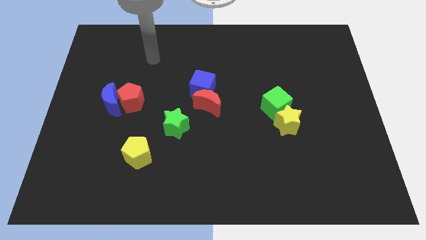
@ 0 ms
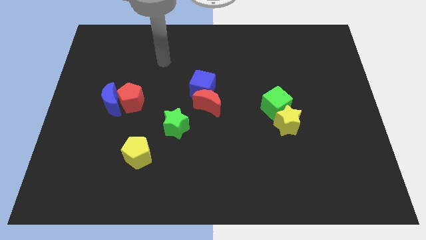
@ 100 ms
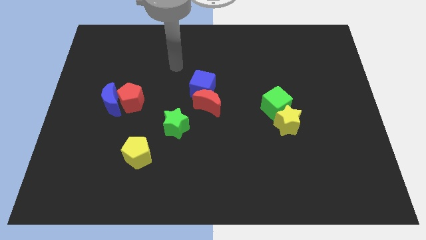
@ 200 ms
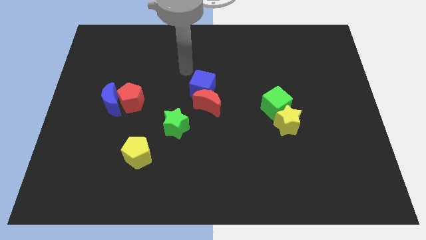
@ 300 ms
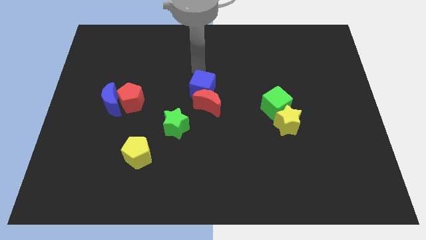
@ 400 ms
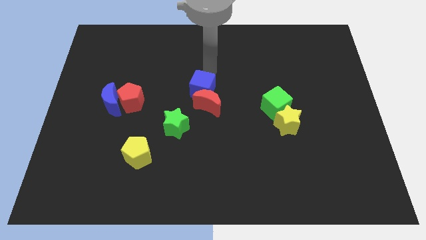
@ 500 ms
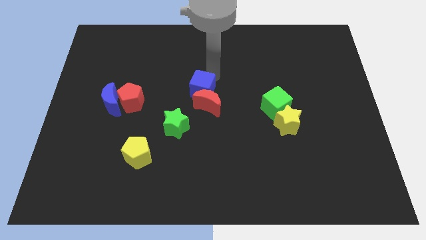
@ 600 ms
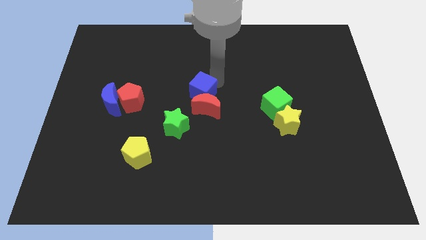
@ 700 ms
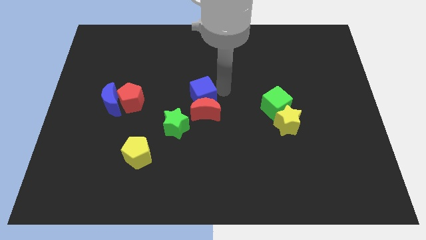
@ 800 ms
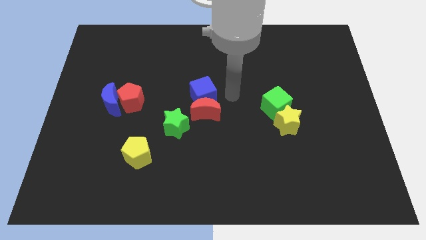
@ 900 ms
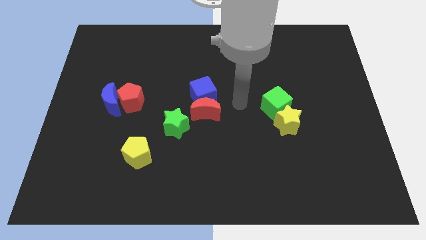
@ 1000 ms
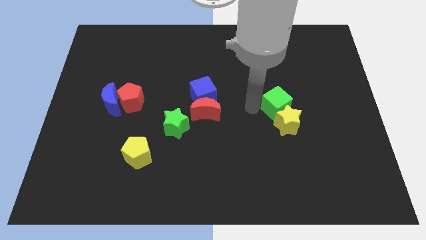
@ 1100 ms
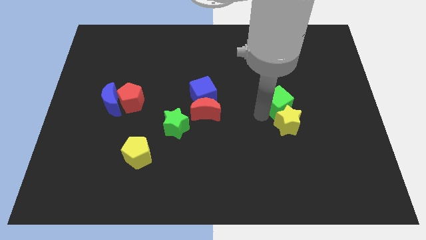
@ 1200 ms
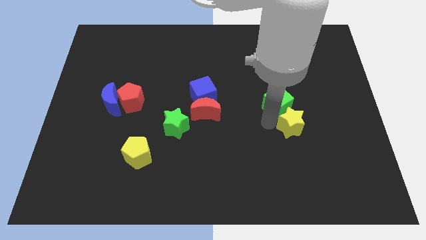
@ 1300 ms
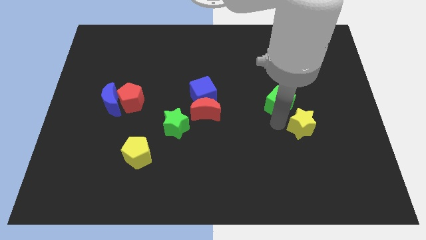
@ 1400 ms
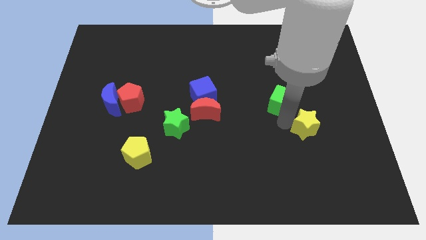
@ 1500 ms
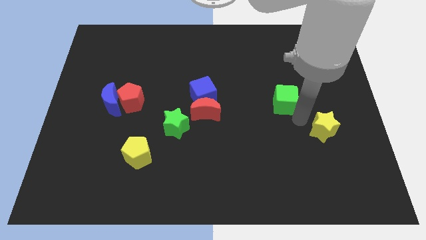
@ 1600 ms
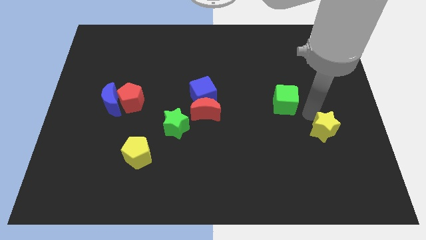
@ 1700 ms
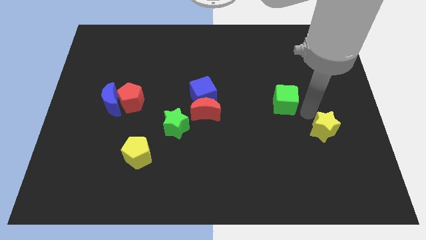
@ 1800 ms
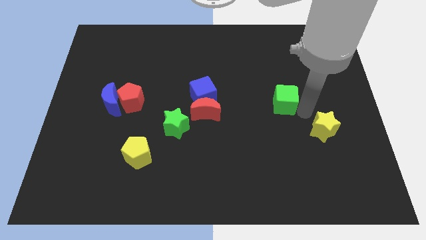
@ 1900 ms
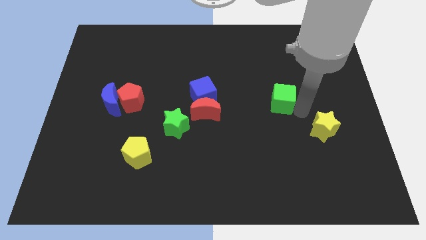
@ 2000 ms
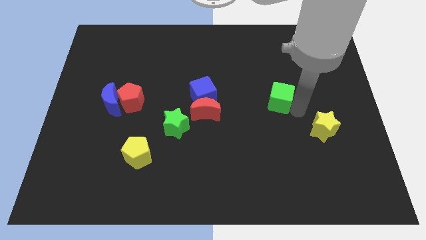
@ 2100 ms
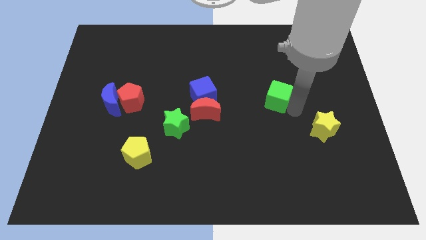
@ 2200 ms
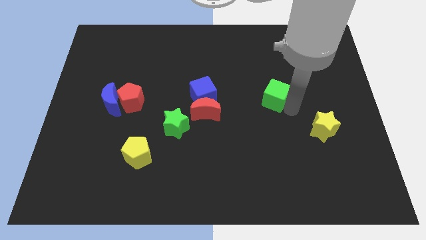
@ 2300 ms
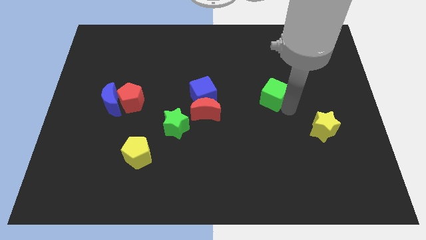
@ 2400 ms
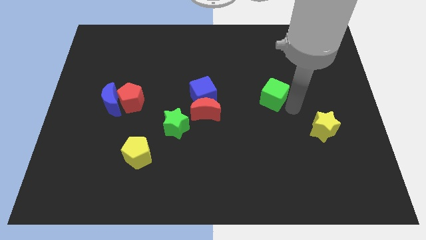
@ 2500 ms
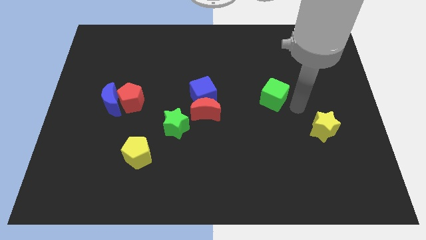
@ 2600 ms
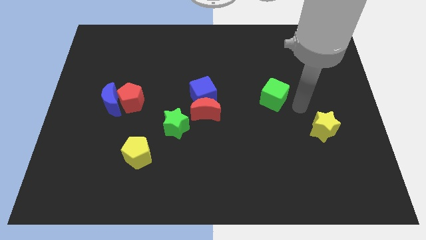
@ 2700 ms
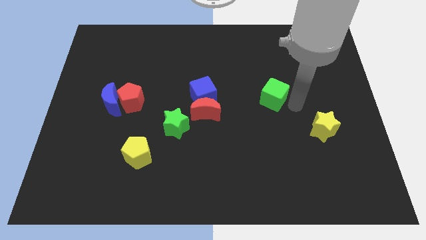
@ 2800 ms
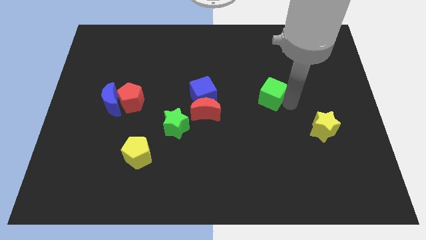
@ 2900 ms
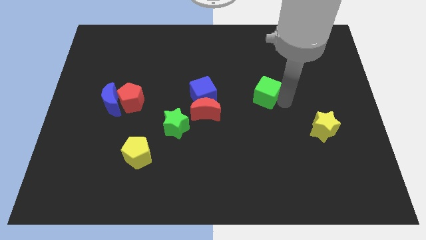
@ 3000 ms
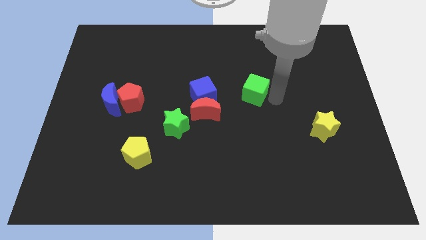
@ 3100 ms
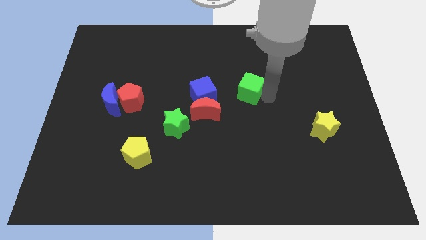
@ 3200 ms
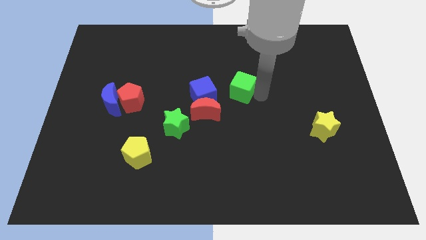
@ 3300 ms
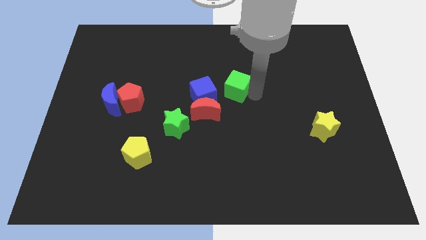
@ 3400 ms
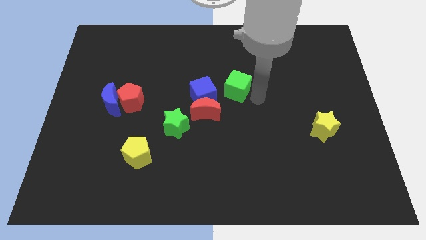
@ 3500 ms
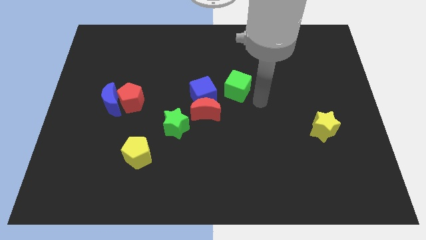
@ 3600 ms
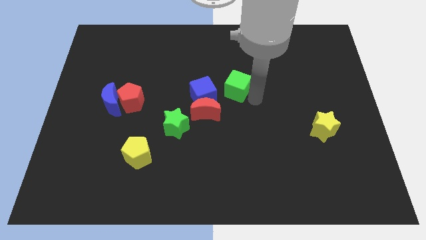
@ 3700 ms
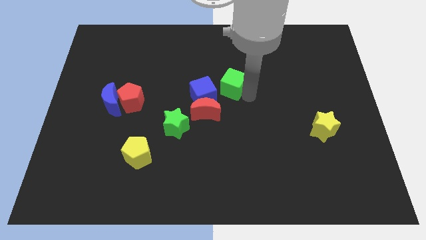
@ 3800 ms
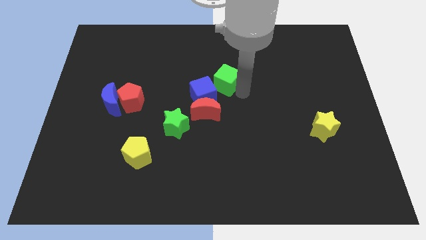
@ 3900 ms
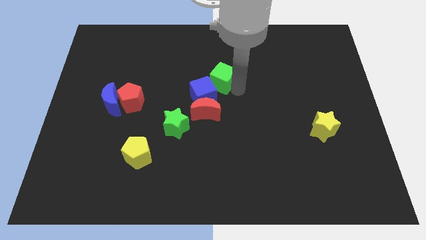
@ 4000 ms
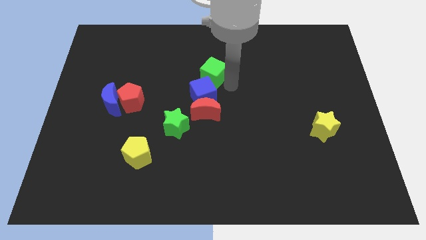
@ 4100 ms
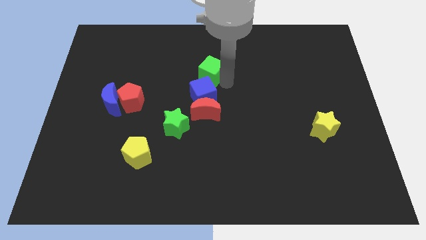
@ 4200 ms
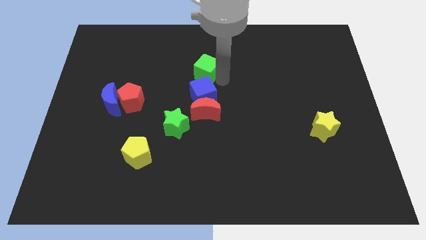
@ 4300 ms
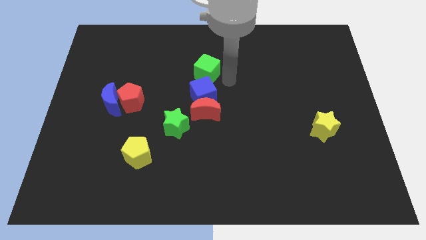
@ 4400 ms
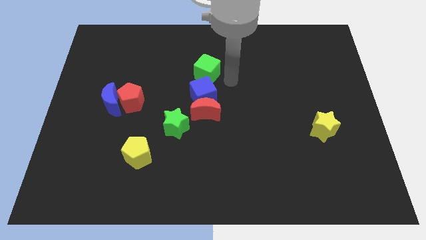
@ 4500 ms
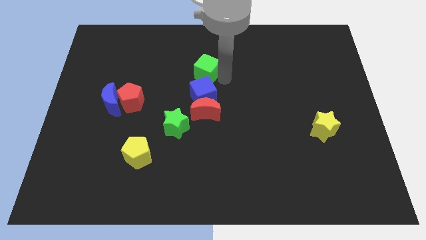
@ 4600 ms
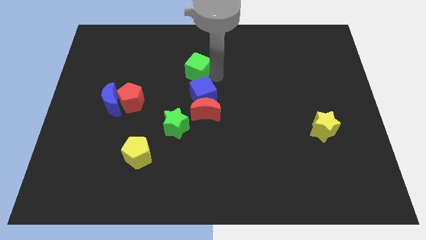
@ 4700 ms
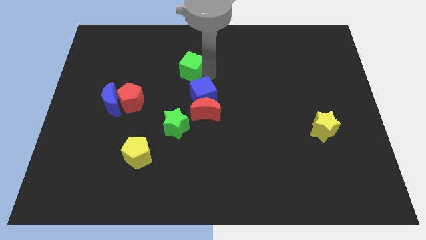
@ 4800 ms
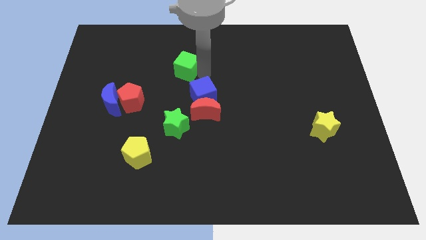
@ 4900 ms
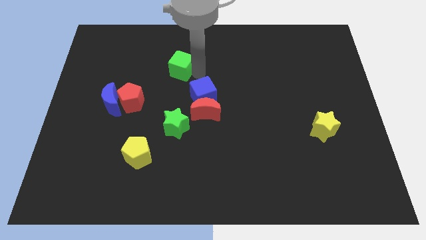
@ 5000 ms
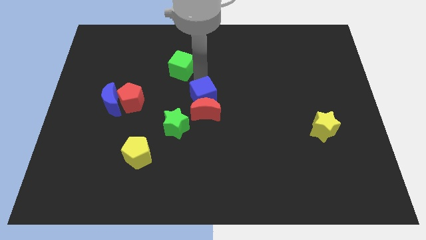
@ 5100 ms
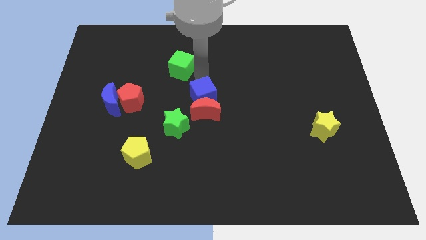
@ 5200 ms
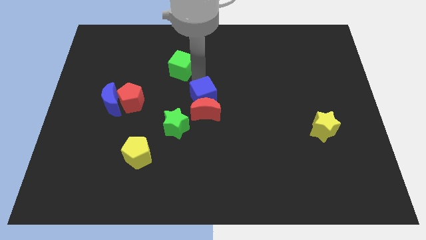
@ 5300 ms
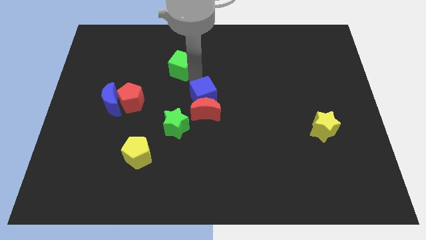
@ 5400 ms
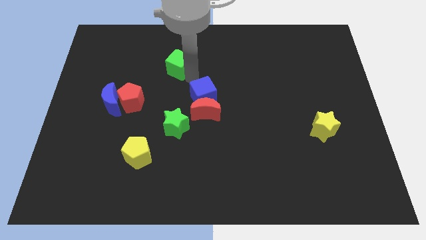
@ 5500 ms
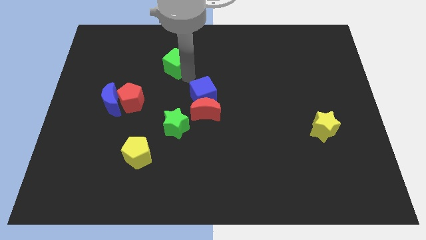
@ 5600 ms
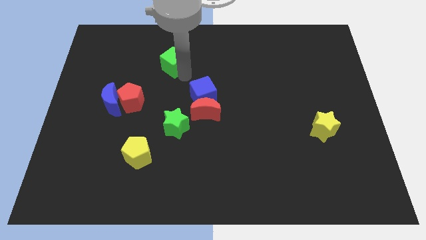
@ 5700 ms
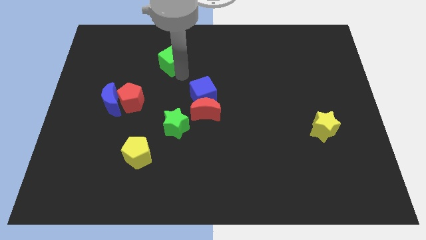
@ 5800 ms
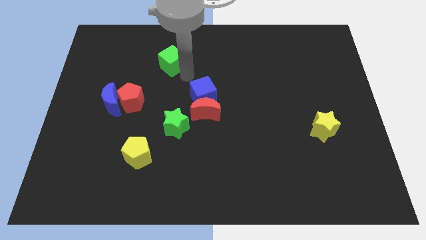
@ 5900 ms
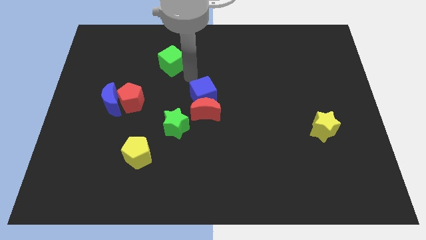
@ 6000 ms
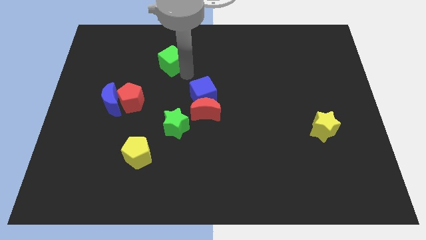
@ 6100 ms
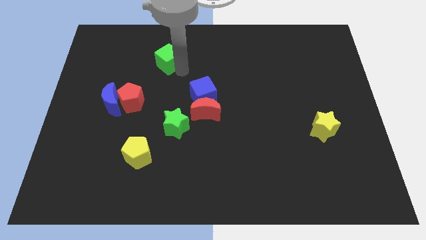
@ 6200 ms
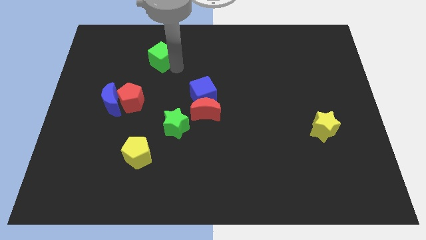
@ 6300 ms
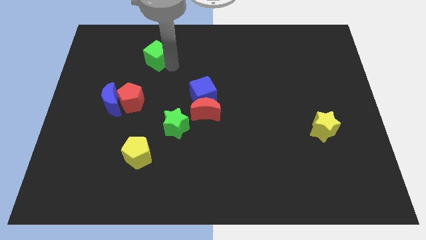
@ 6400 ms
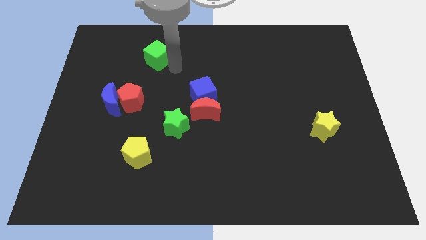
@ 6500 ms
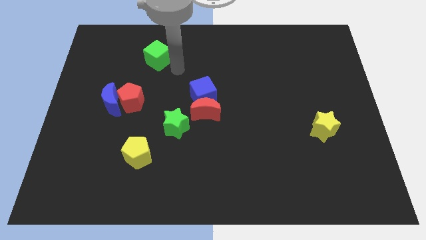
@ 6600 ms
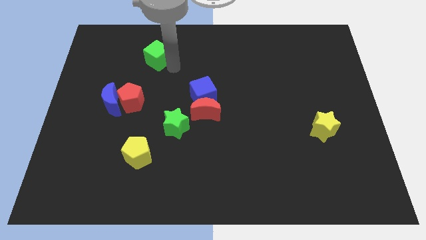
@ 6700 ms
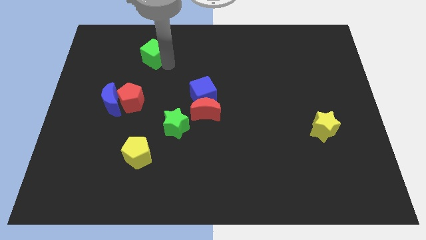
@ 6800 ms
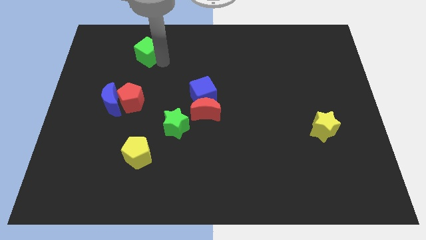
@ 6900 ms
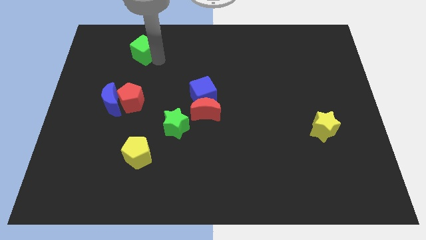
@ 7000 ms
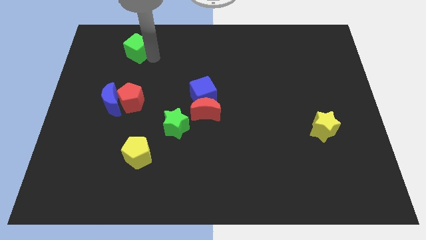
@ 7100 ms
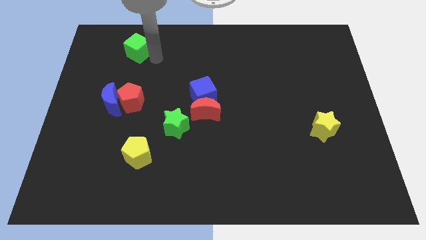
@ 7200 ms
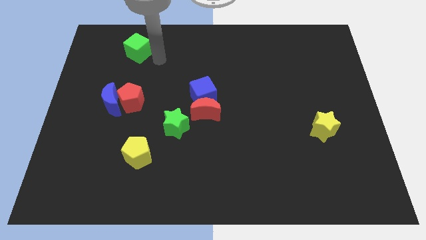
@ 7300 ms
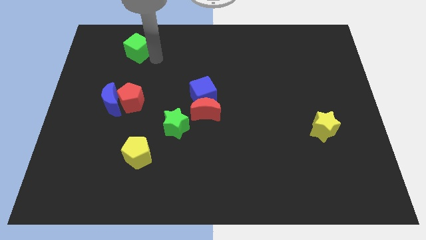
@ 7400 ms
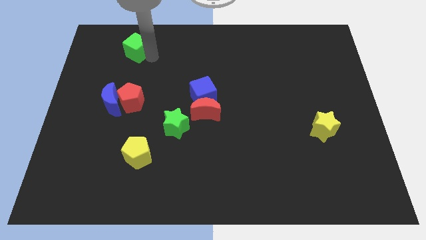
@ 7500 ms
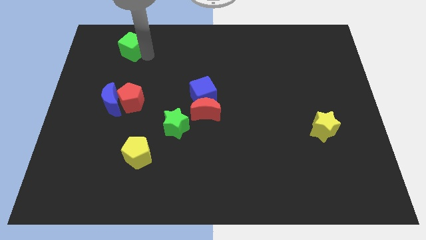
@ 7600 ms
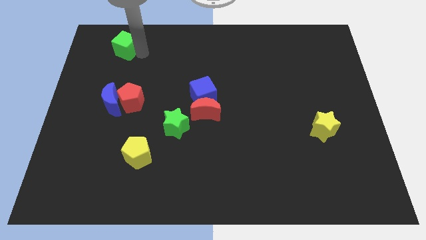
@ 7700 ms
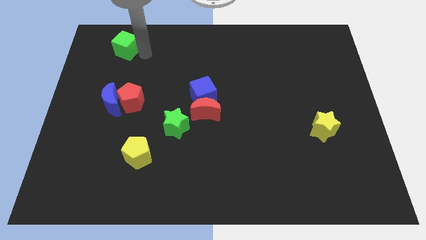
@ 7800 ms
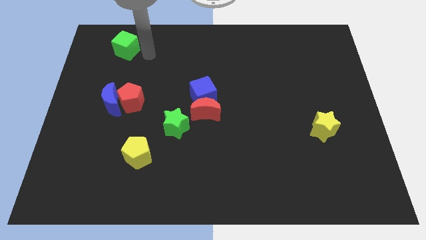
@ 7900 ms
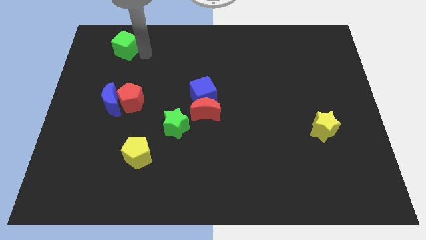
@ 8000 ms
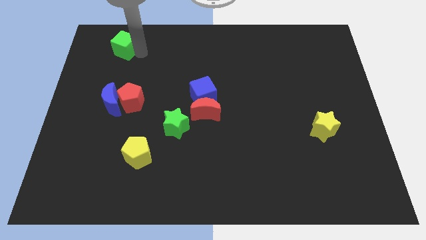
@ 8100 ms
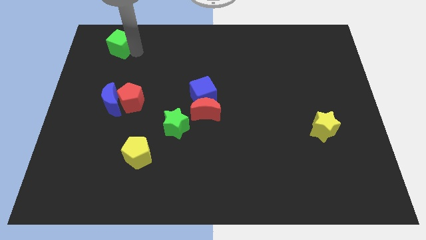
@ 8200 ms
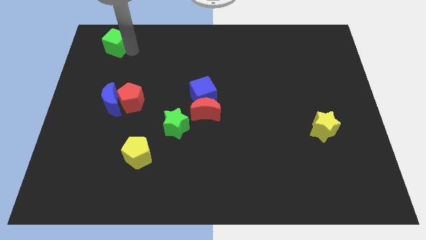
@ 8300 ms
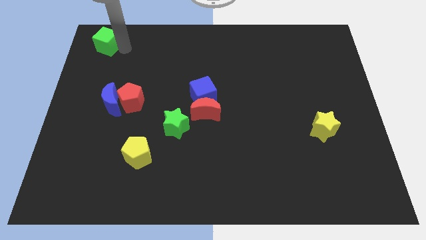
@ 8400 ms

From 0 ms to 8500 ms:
slide the green cube to the top left
